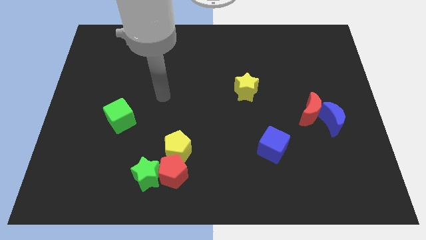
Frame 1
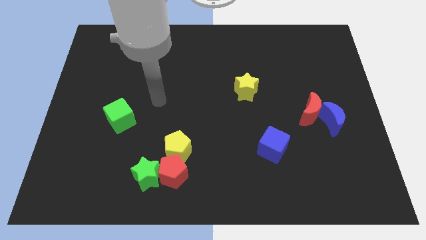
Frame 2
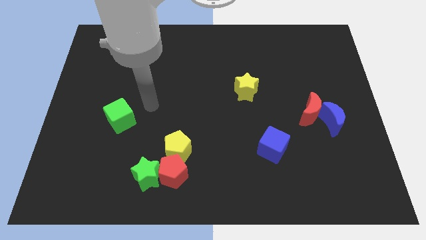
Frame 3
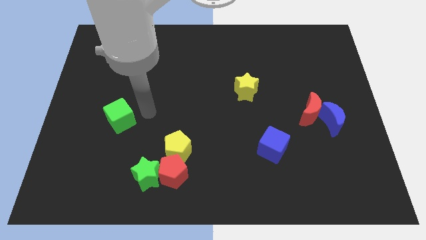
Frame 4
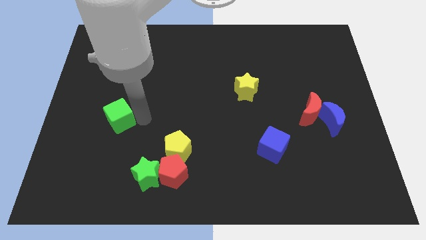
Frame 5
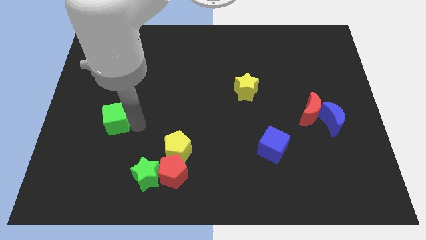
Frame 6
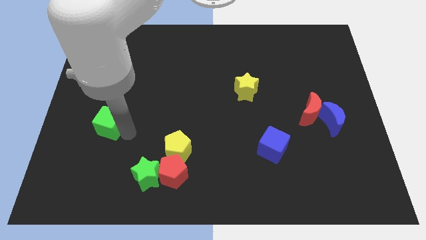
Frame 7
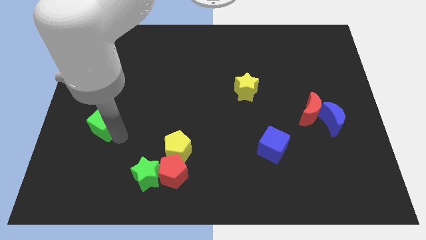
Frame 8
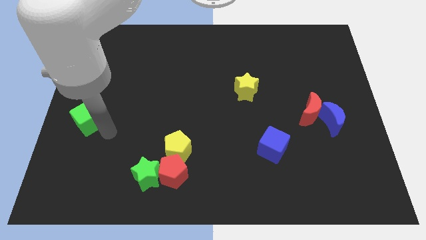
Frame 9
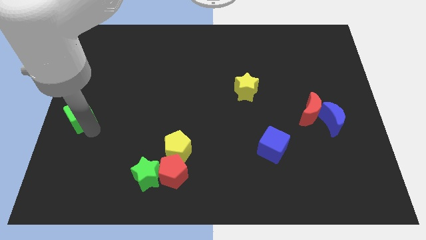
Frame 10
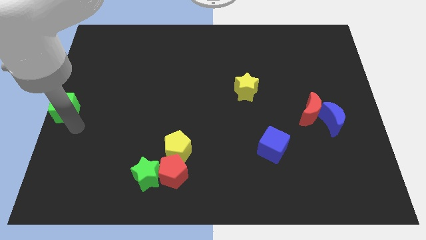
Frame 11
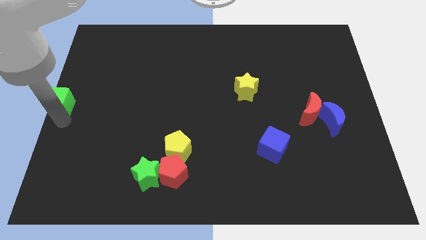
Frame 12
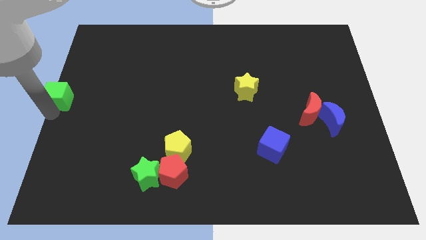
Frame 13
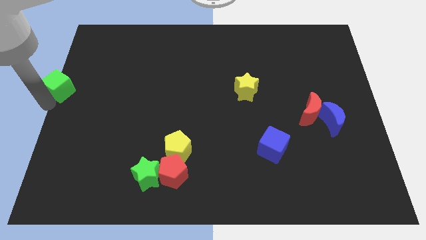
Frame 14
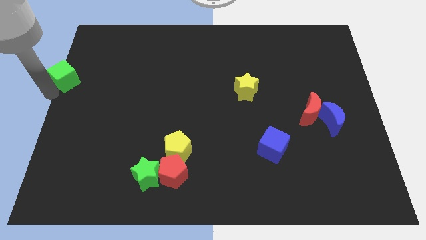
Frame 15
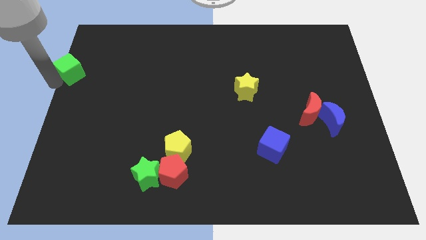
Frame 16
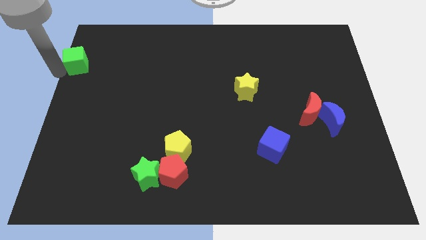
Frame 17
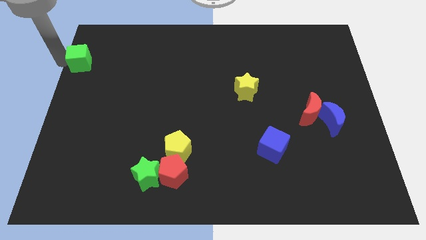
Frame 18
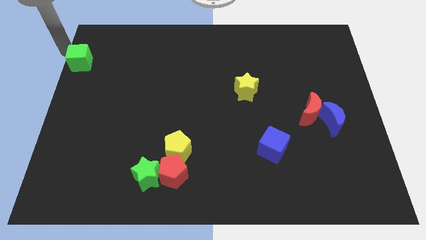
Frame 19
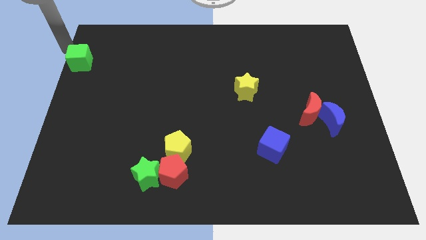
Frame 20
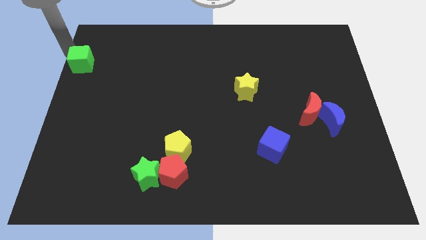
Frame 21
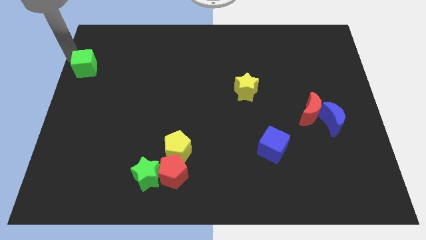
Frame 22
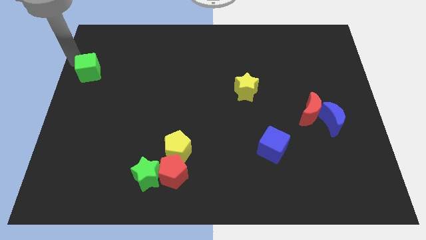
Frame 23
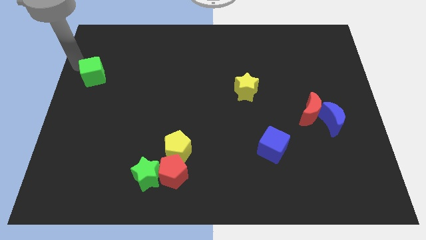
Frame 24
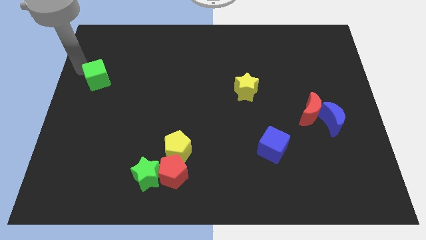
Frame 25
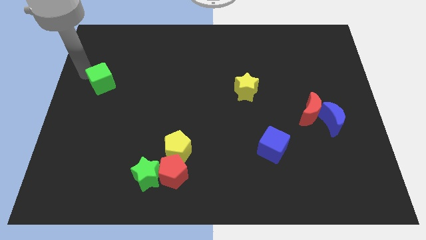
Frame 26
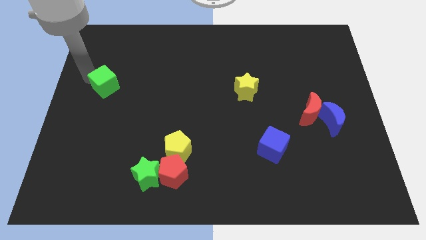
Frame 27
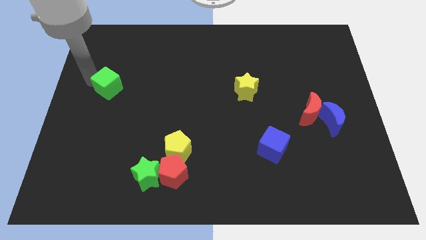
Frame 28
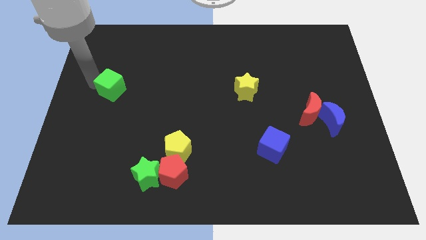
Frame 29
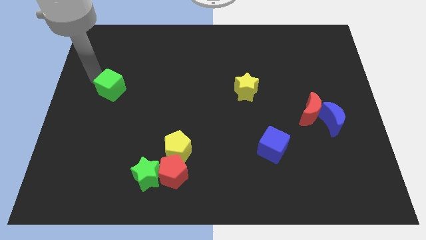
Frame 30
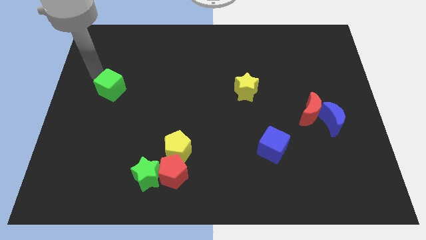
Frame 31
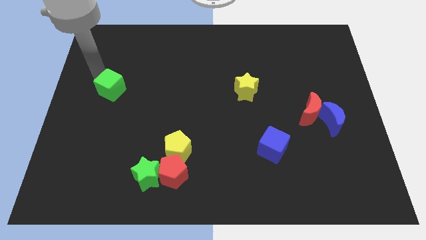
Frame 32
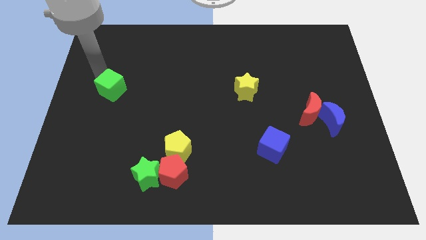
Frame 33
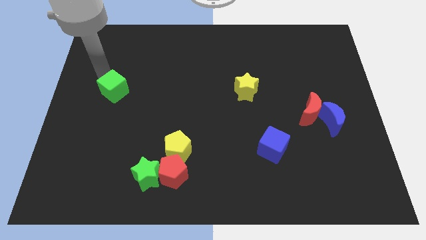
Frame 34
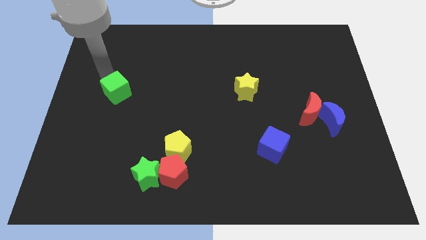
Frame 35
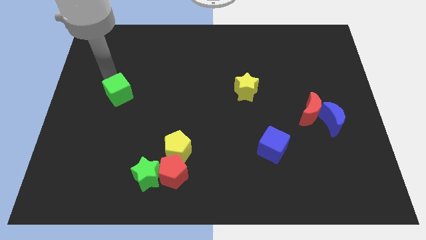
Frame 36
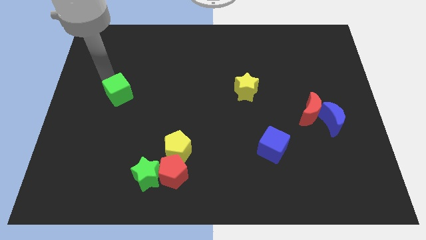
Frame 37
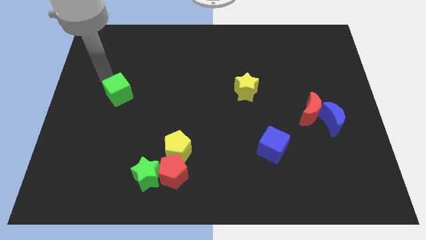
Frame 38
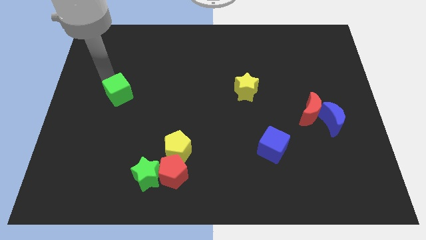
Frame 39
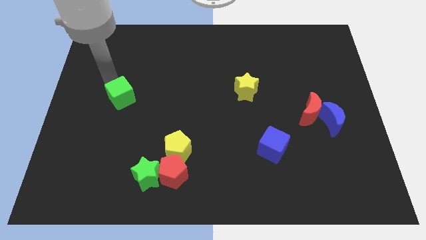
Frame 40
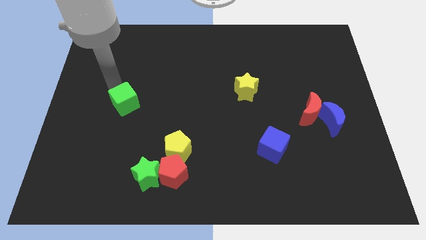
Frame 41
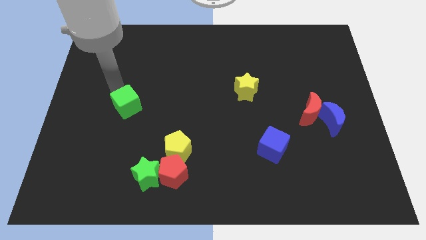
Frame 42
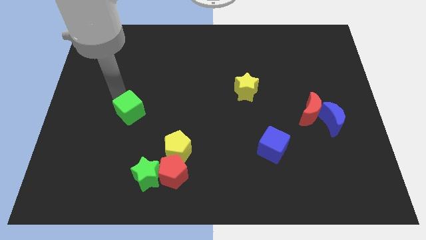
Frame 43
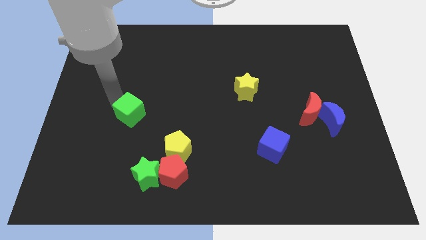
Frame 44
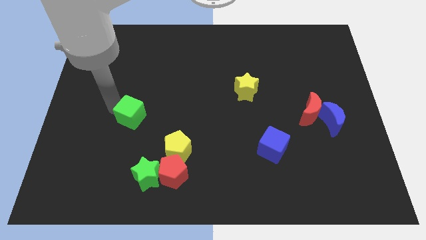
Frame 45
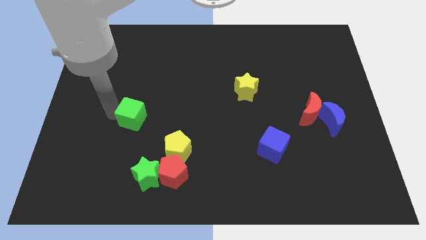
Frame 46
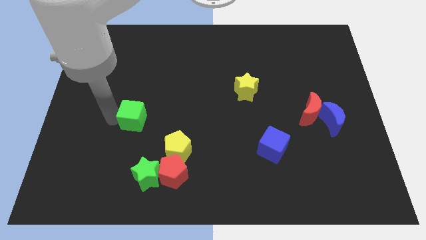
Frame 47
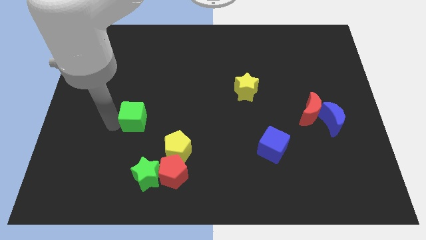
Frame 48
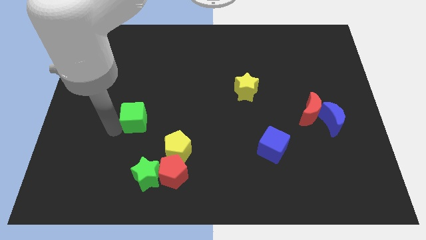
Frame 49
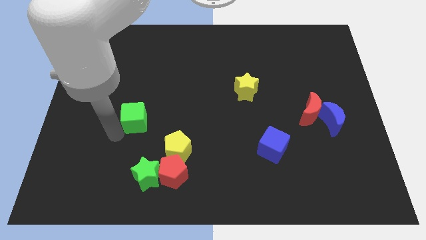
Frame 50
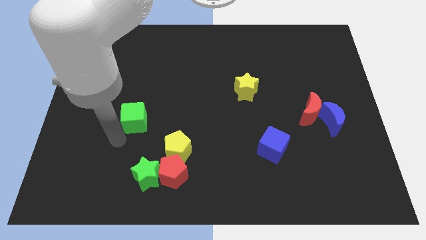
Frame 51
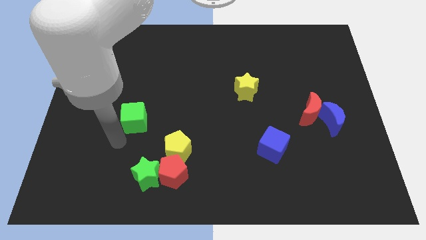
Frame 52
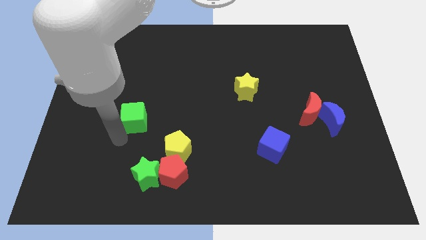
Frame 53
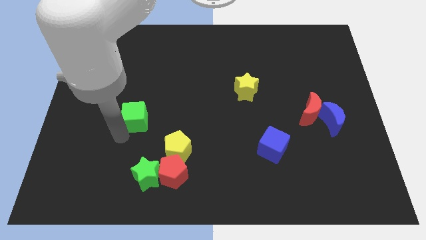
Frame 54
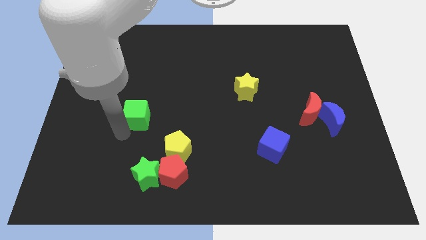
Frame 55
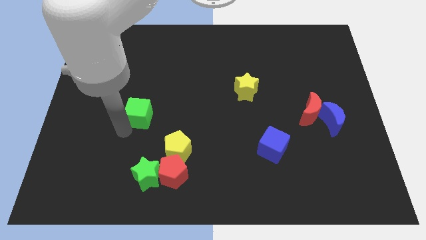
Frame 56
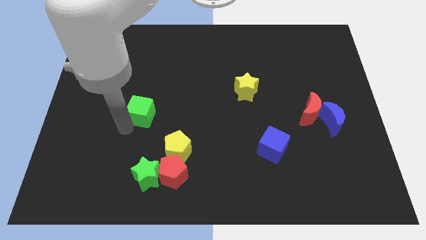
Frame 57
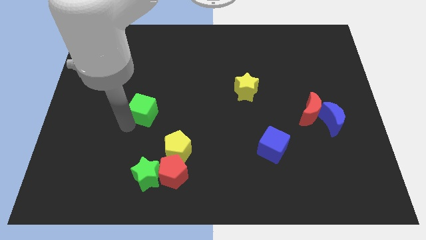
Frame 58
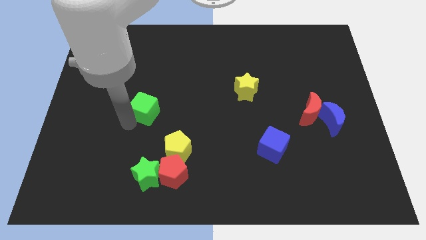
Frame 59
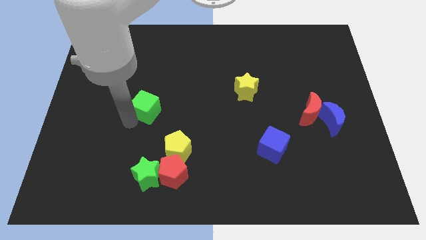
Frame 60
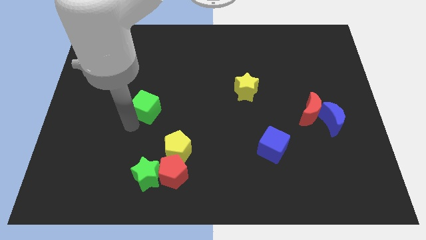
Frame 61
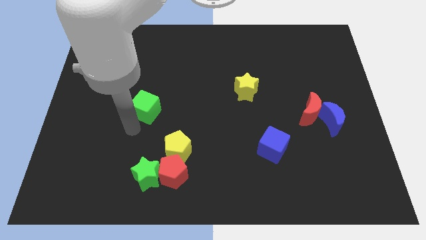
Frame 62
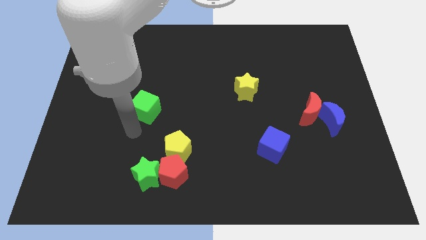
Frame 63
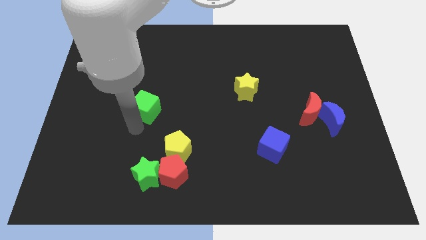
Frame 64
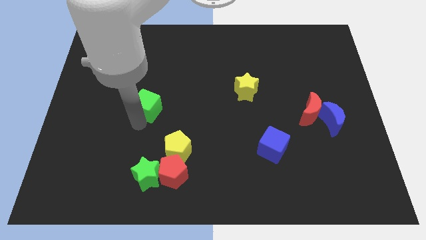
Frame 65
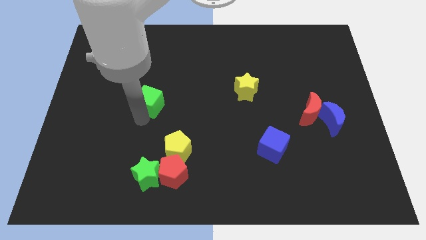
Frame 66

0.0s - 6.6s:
slide the green cube up and then right a little

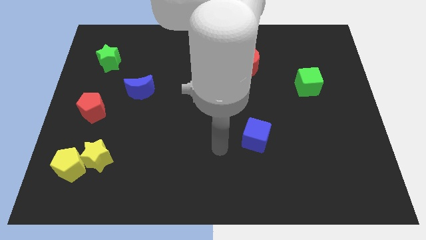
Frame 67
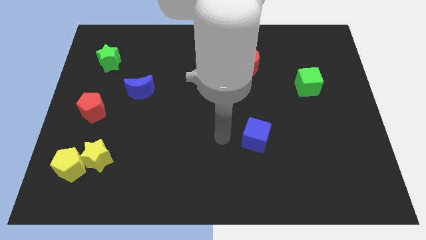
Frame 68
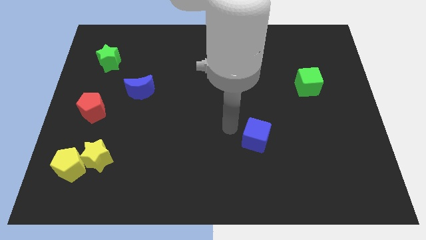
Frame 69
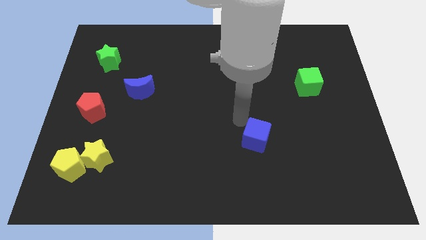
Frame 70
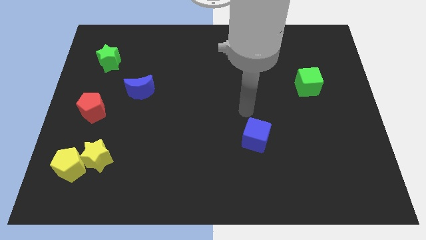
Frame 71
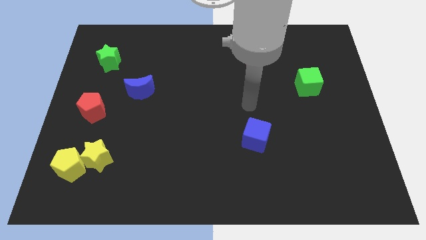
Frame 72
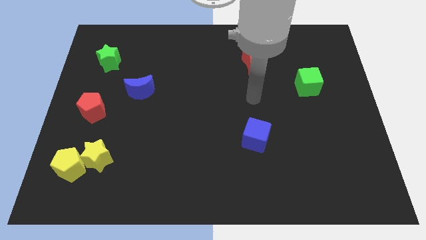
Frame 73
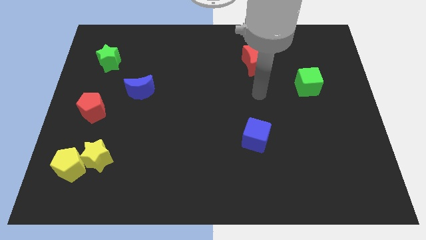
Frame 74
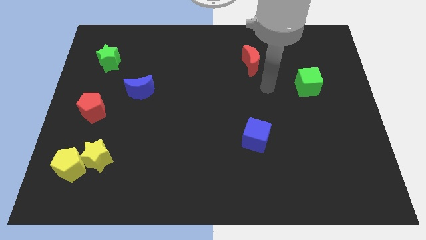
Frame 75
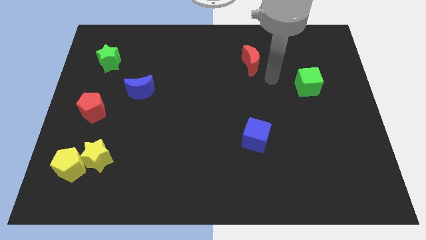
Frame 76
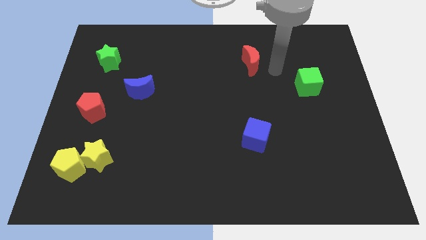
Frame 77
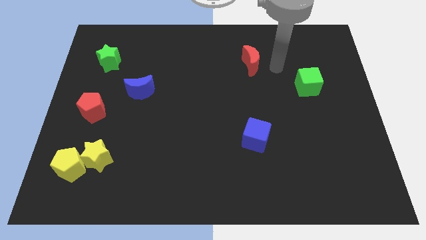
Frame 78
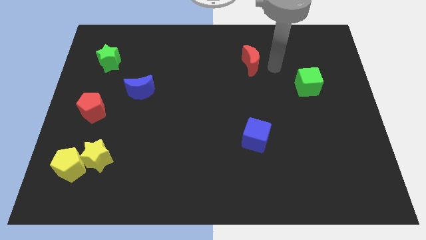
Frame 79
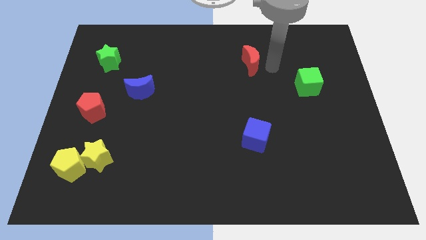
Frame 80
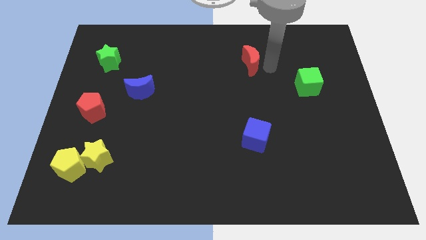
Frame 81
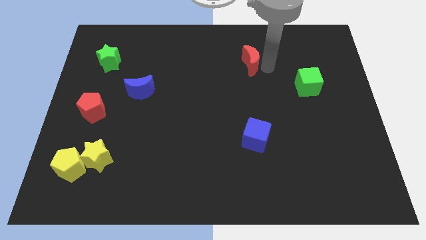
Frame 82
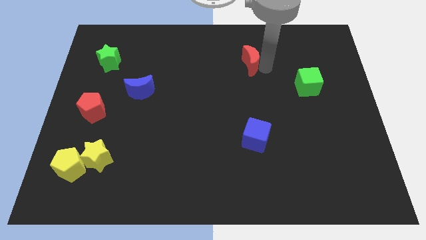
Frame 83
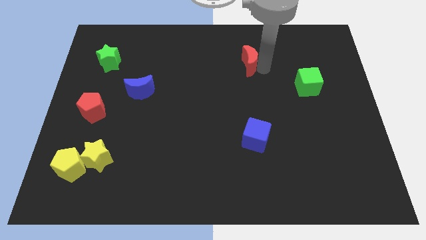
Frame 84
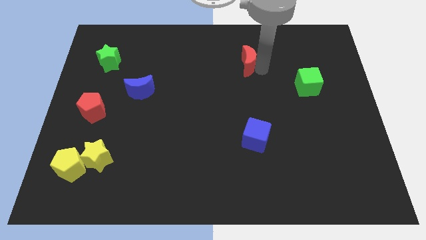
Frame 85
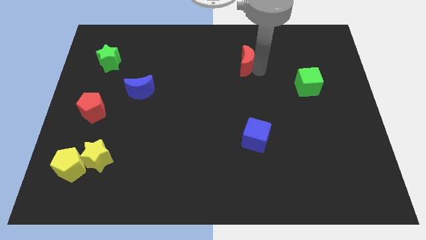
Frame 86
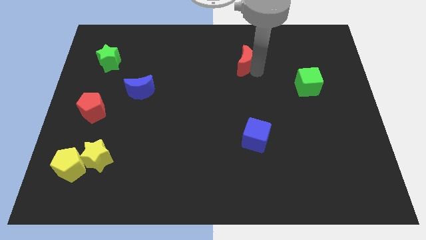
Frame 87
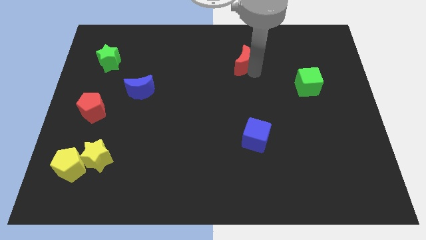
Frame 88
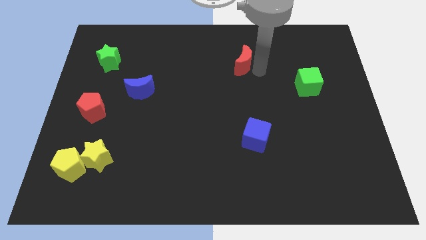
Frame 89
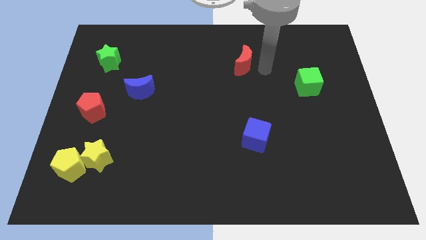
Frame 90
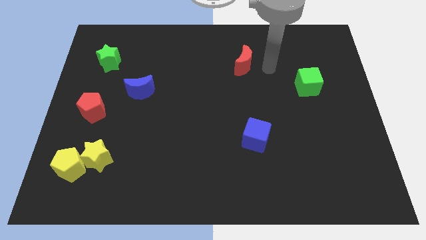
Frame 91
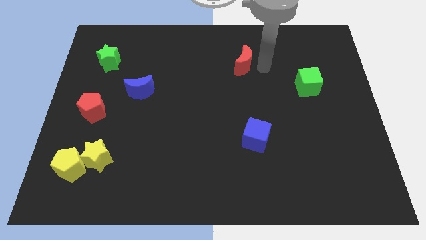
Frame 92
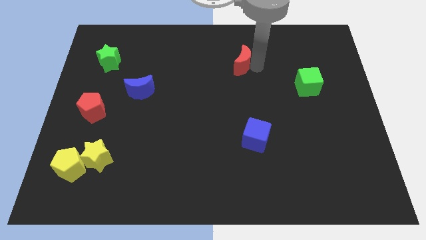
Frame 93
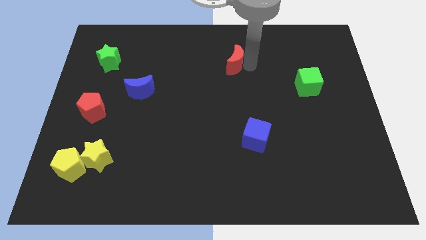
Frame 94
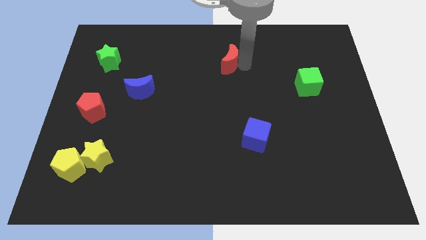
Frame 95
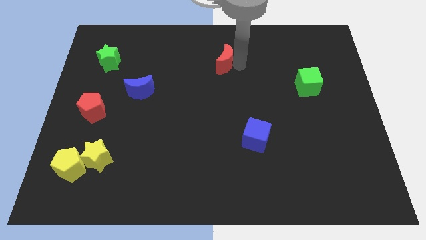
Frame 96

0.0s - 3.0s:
slide the red moon a little left
